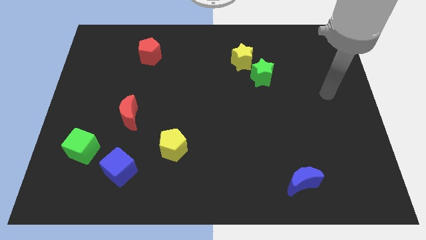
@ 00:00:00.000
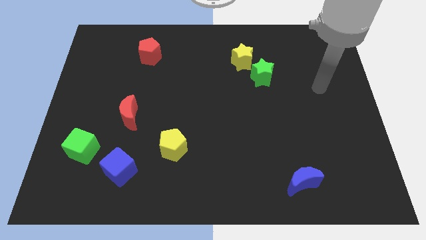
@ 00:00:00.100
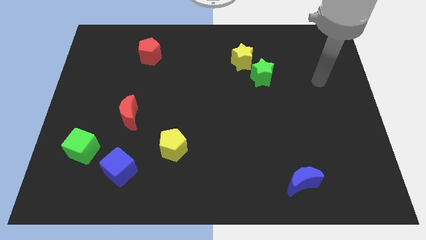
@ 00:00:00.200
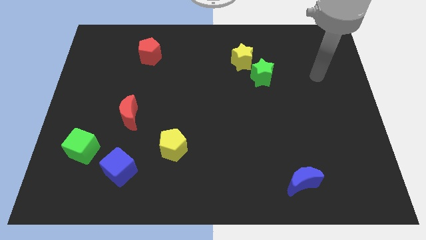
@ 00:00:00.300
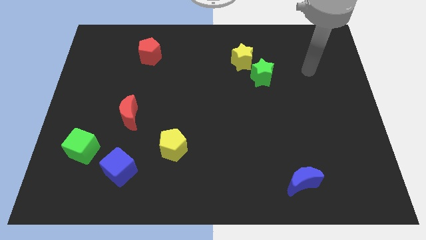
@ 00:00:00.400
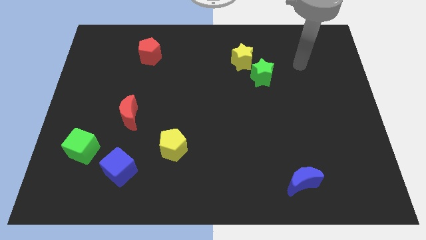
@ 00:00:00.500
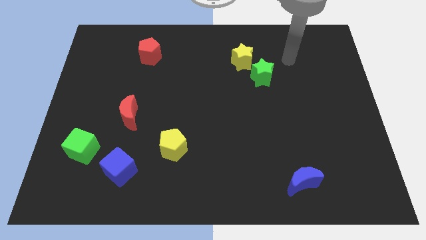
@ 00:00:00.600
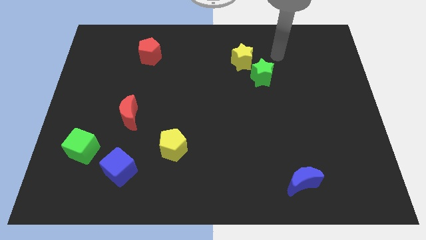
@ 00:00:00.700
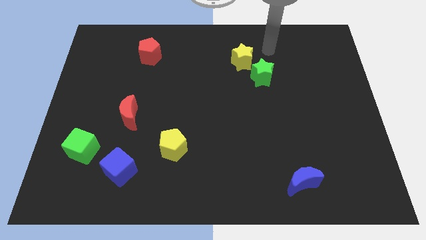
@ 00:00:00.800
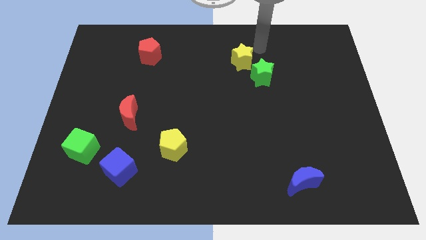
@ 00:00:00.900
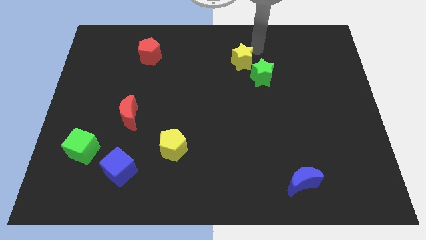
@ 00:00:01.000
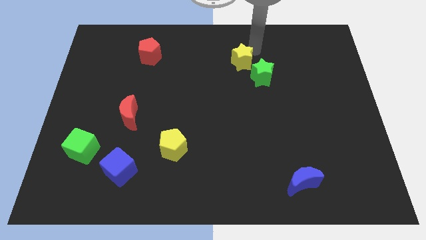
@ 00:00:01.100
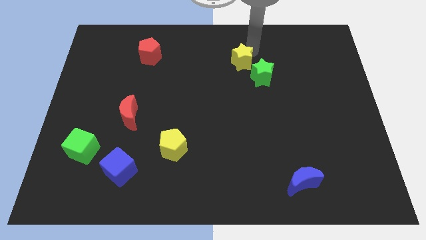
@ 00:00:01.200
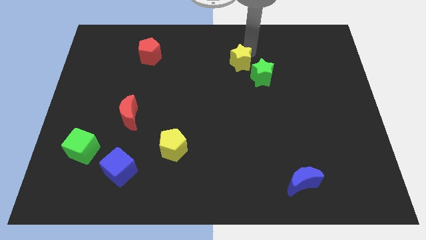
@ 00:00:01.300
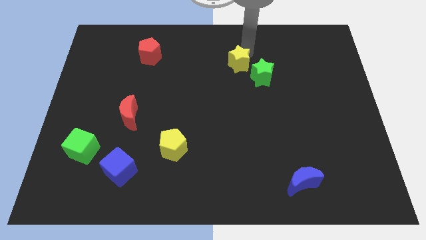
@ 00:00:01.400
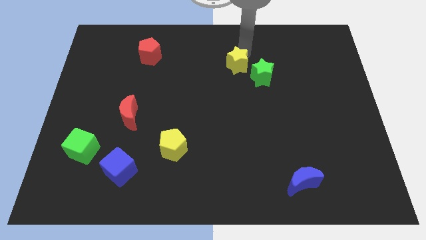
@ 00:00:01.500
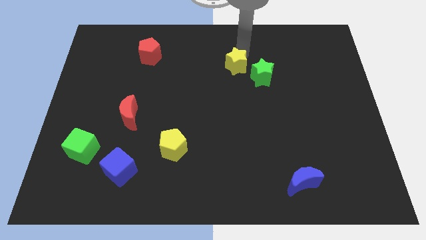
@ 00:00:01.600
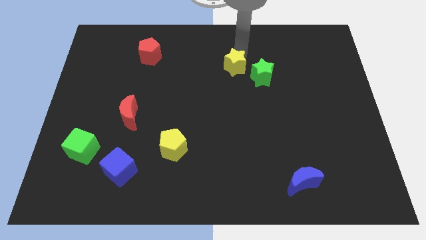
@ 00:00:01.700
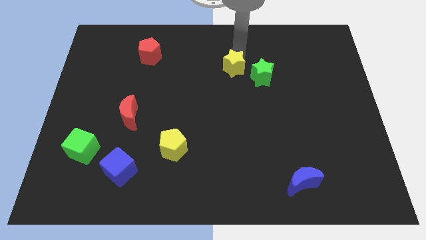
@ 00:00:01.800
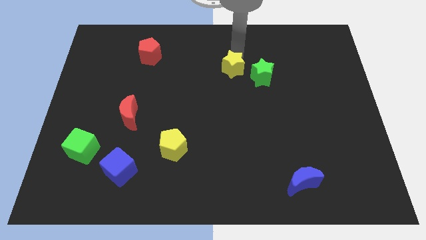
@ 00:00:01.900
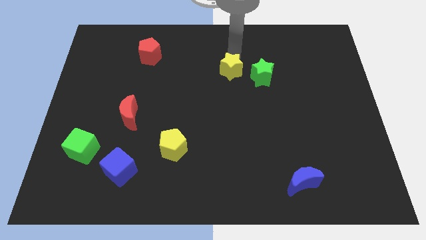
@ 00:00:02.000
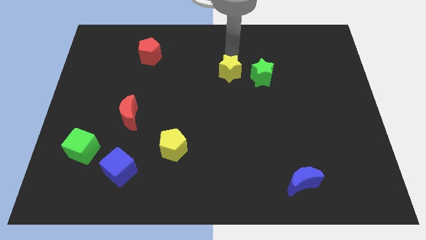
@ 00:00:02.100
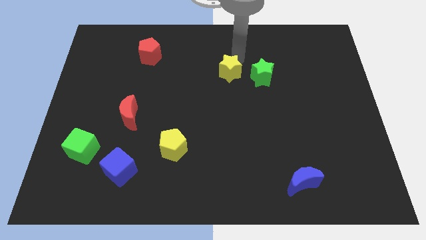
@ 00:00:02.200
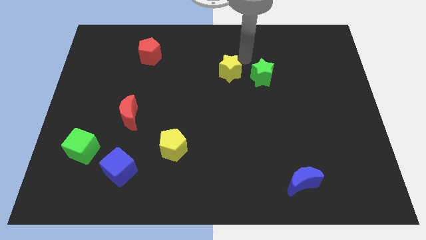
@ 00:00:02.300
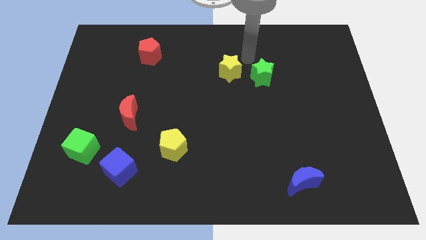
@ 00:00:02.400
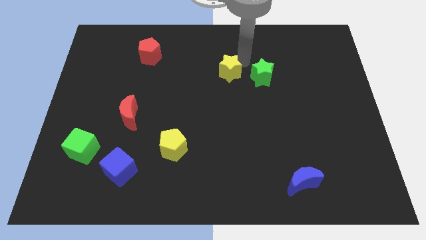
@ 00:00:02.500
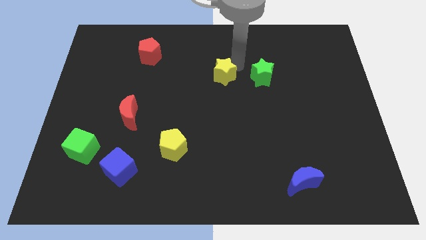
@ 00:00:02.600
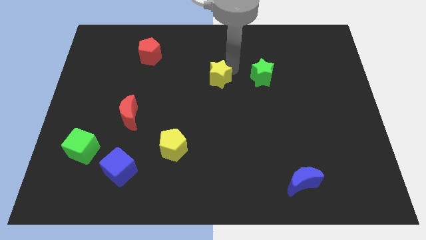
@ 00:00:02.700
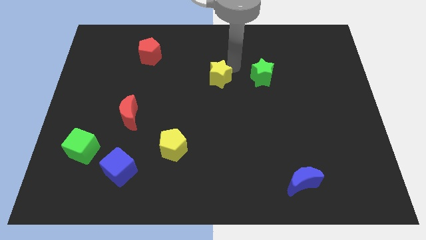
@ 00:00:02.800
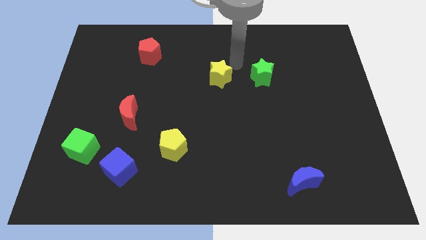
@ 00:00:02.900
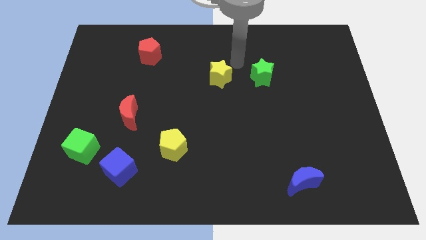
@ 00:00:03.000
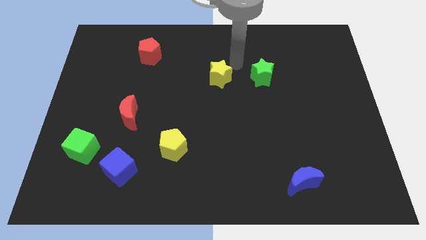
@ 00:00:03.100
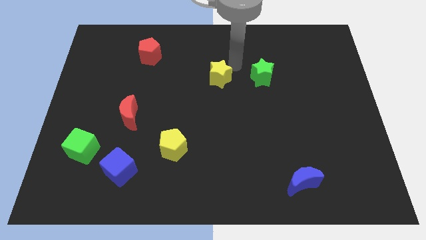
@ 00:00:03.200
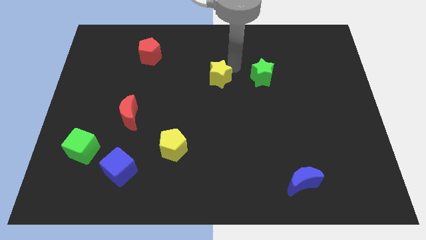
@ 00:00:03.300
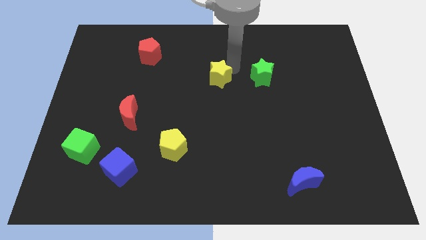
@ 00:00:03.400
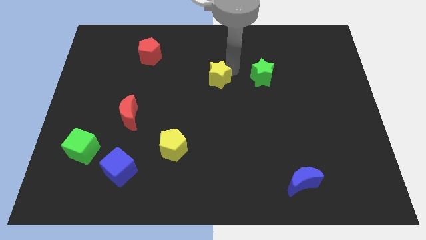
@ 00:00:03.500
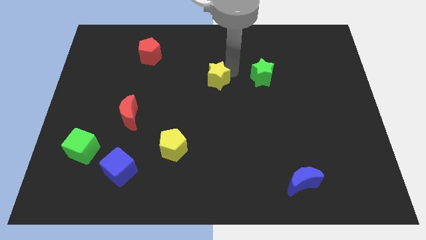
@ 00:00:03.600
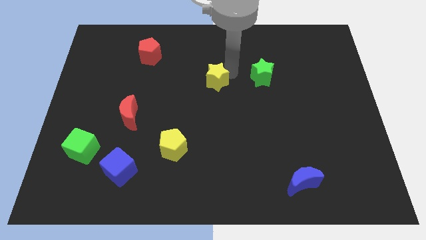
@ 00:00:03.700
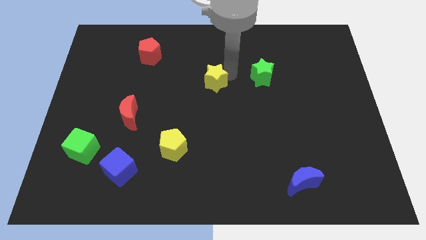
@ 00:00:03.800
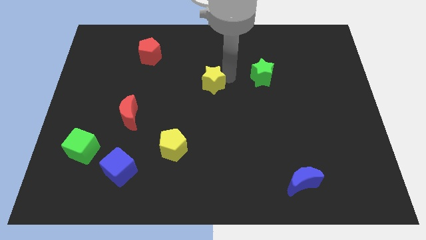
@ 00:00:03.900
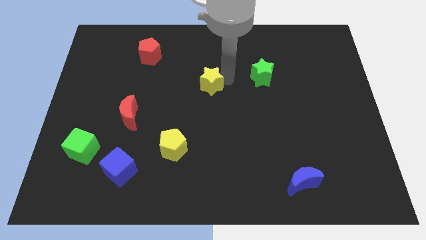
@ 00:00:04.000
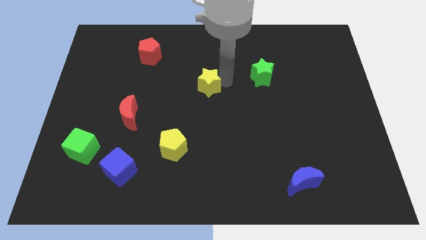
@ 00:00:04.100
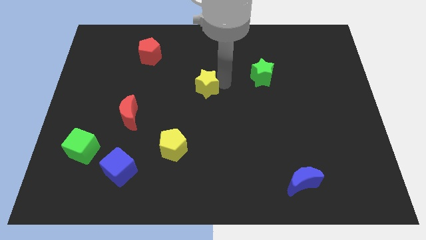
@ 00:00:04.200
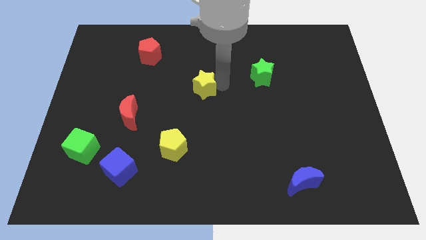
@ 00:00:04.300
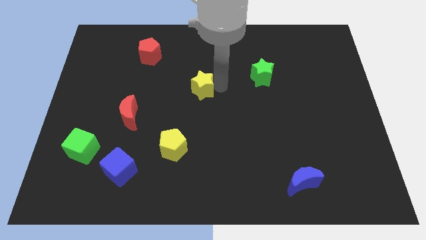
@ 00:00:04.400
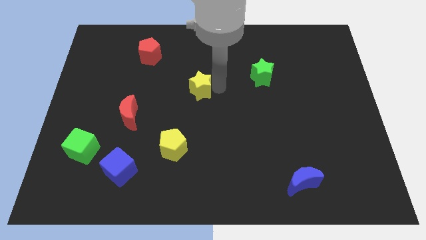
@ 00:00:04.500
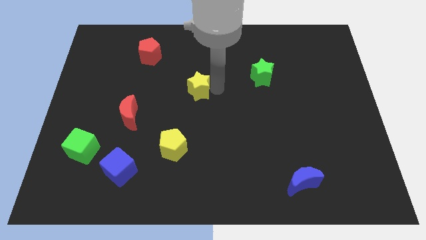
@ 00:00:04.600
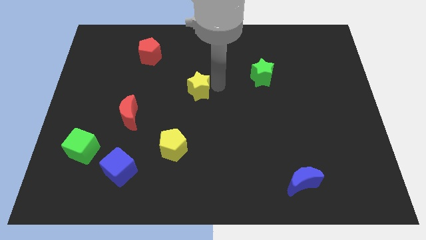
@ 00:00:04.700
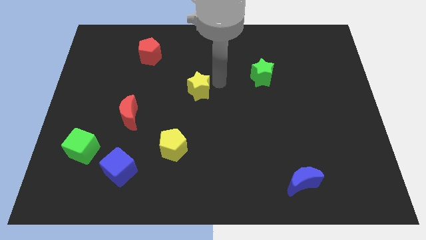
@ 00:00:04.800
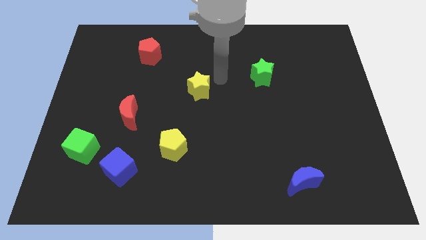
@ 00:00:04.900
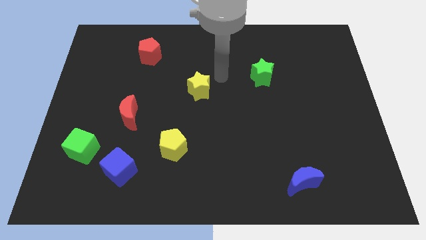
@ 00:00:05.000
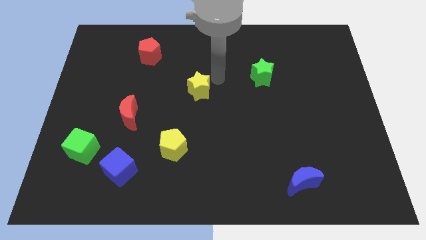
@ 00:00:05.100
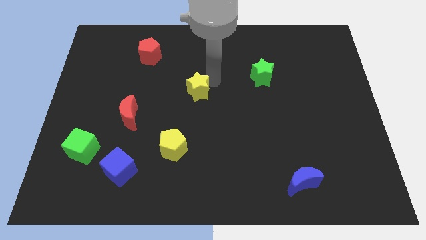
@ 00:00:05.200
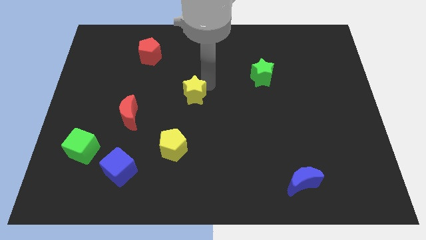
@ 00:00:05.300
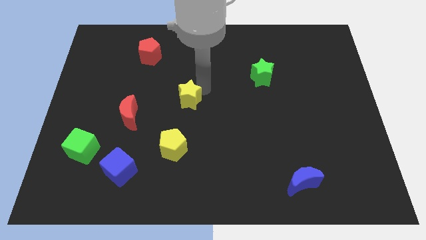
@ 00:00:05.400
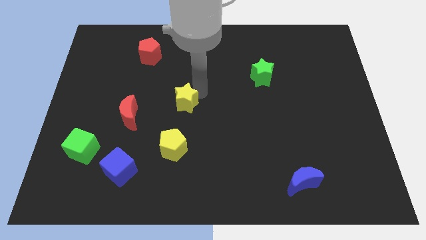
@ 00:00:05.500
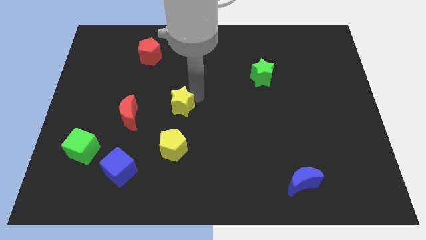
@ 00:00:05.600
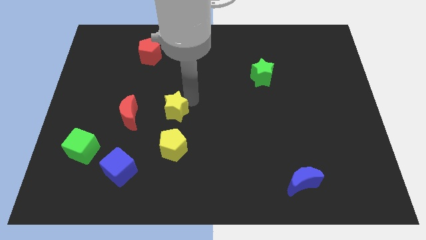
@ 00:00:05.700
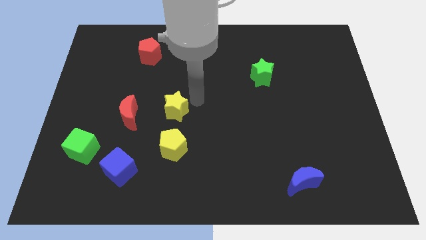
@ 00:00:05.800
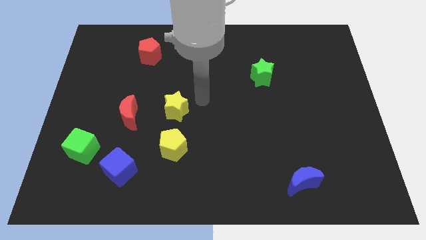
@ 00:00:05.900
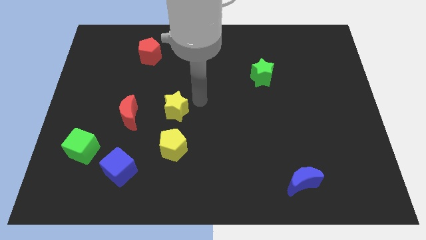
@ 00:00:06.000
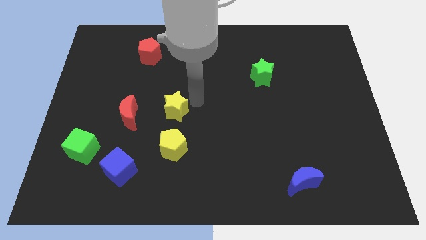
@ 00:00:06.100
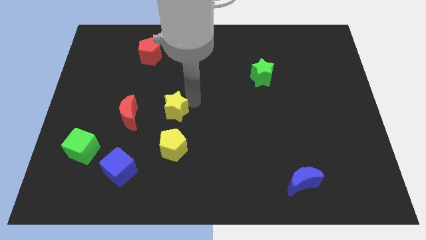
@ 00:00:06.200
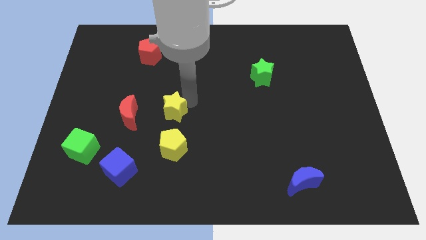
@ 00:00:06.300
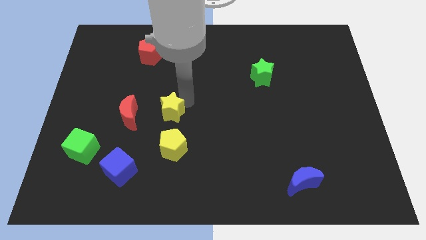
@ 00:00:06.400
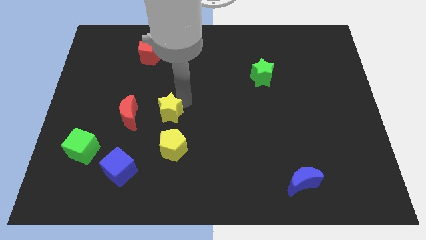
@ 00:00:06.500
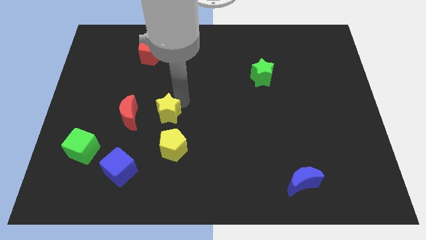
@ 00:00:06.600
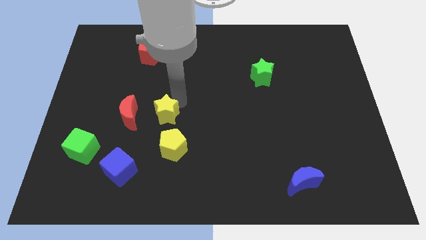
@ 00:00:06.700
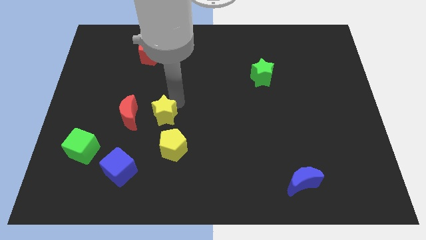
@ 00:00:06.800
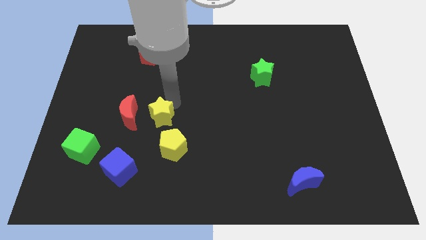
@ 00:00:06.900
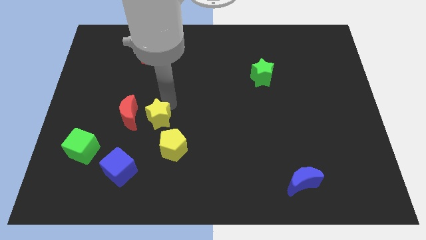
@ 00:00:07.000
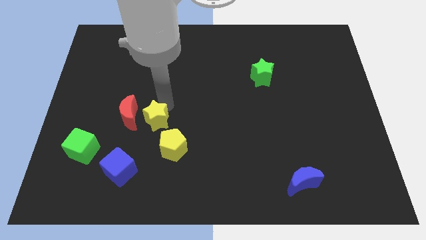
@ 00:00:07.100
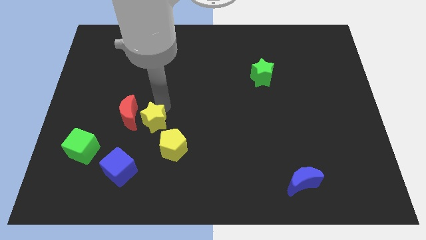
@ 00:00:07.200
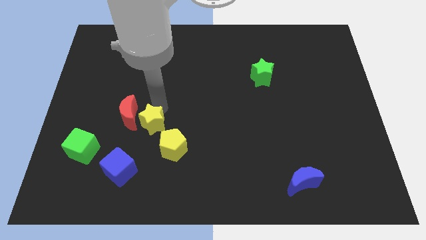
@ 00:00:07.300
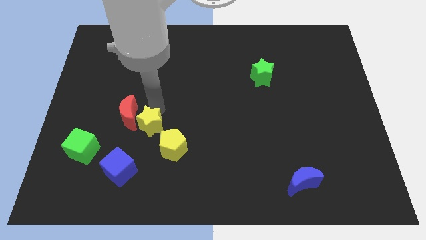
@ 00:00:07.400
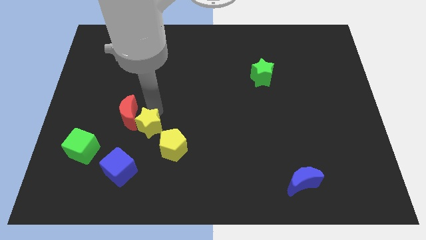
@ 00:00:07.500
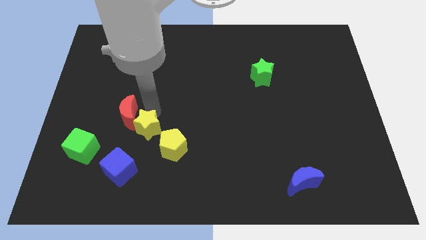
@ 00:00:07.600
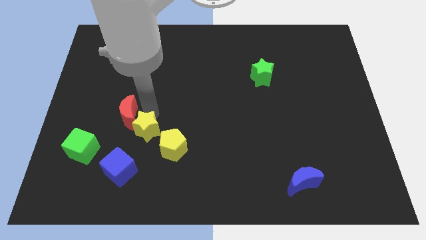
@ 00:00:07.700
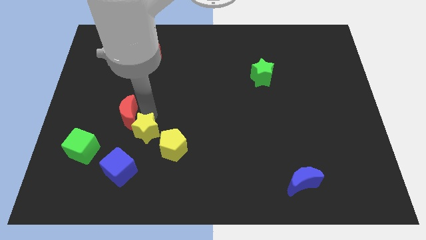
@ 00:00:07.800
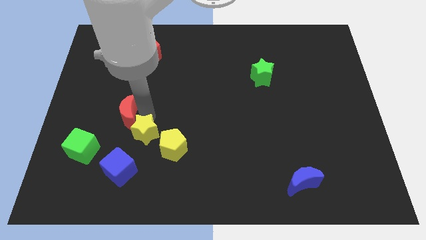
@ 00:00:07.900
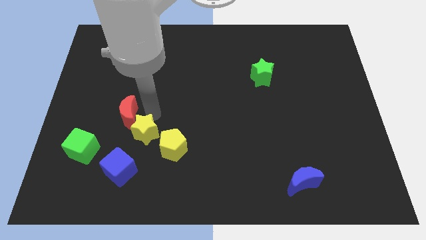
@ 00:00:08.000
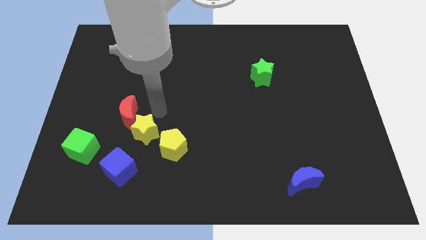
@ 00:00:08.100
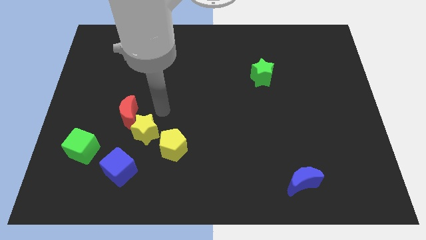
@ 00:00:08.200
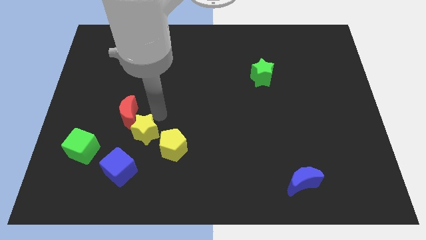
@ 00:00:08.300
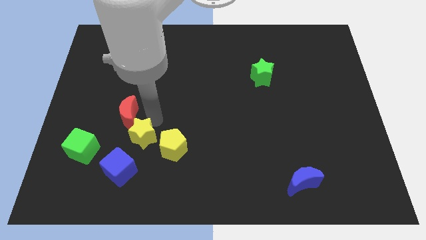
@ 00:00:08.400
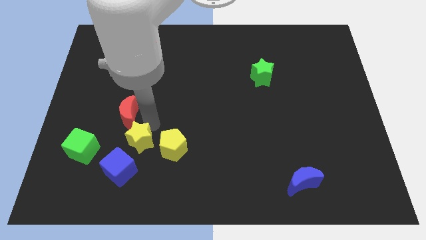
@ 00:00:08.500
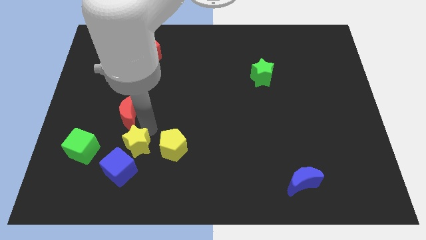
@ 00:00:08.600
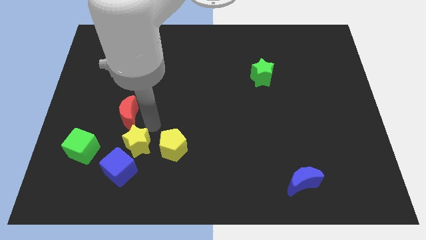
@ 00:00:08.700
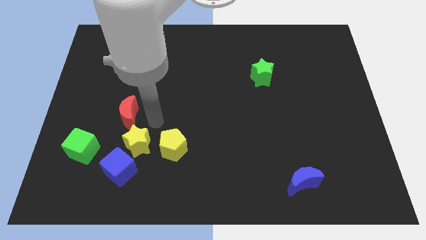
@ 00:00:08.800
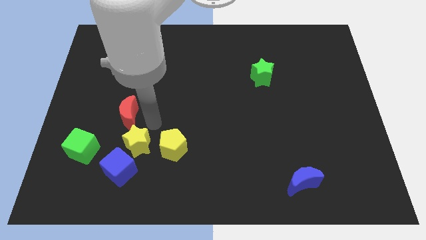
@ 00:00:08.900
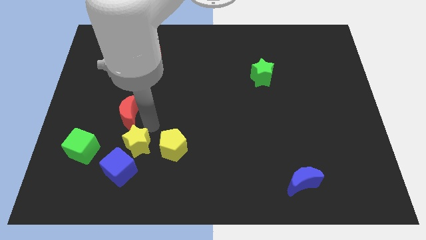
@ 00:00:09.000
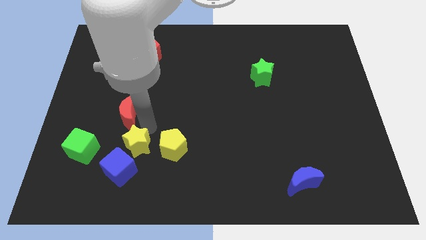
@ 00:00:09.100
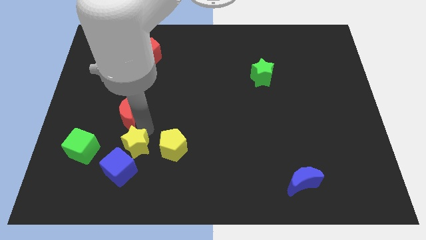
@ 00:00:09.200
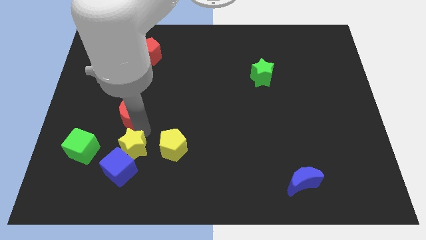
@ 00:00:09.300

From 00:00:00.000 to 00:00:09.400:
push the yellow star to the blue cube
